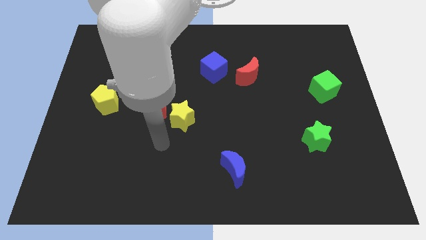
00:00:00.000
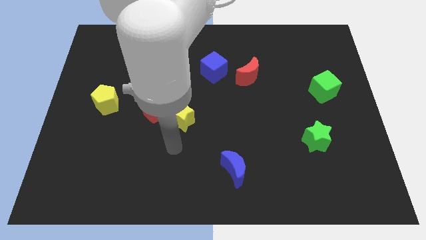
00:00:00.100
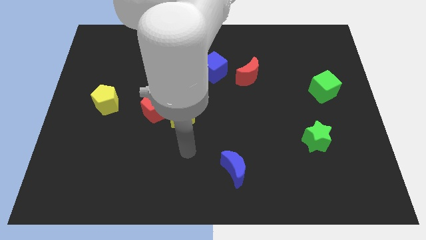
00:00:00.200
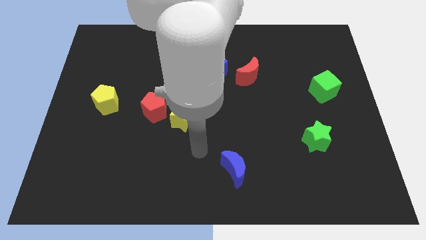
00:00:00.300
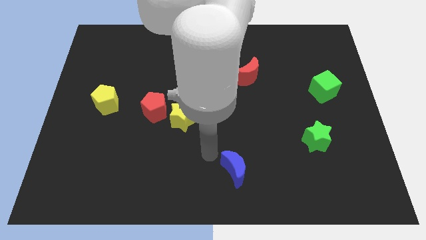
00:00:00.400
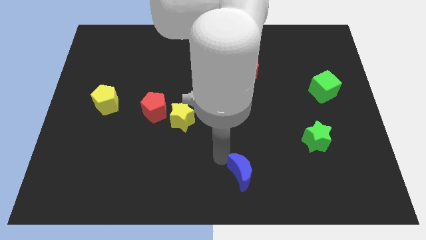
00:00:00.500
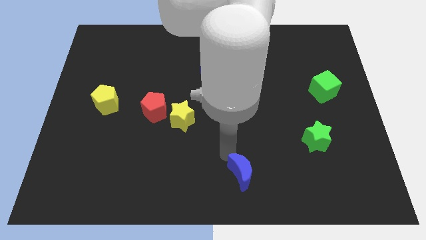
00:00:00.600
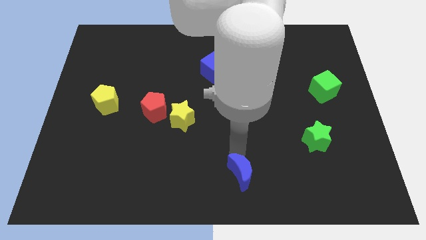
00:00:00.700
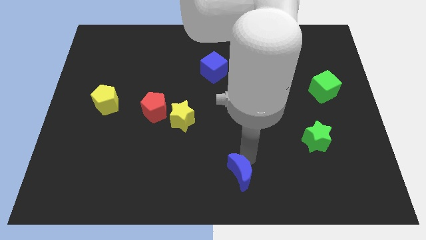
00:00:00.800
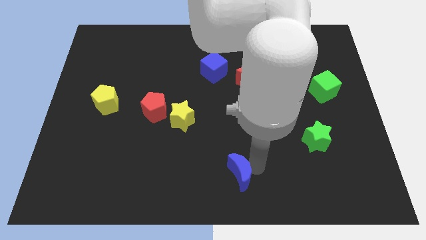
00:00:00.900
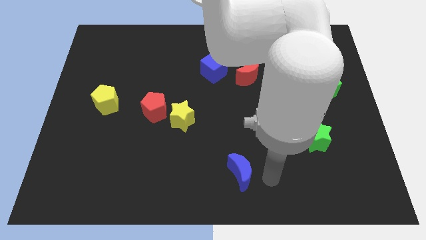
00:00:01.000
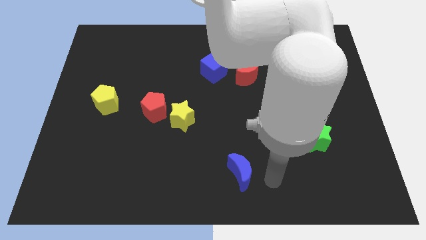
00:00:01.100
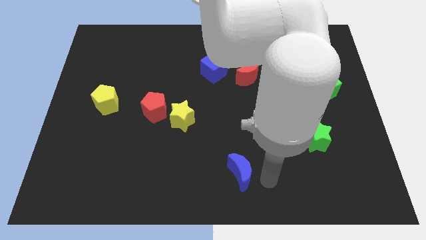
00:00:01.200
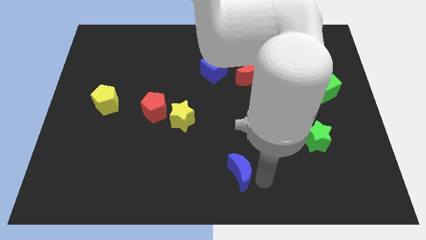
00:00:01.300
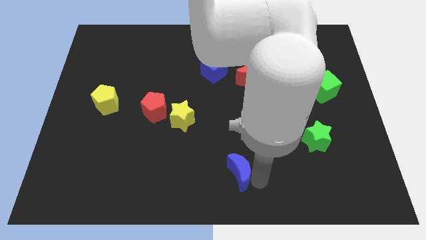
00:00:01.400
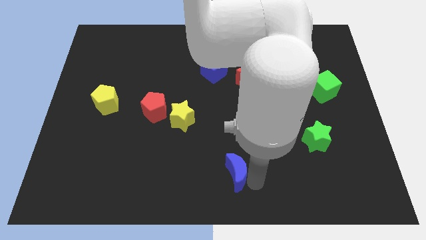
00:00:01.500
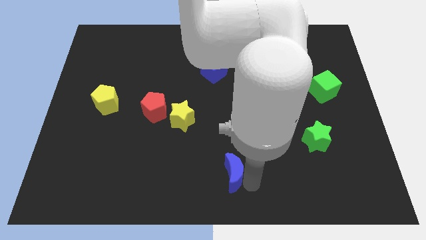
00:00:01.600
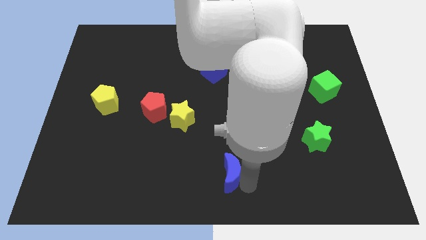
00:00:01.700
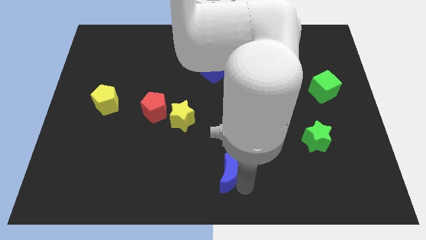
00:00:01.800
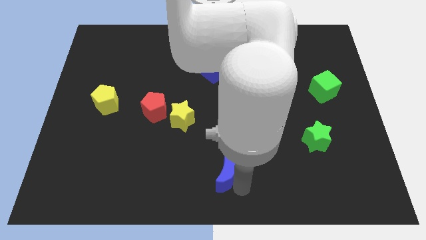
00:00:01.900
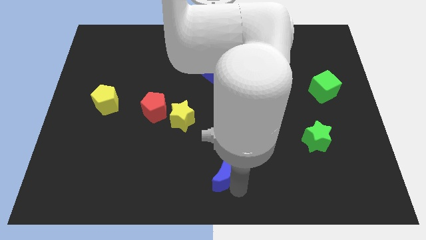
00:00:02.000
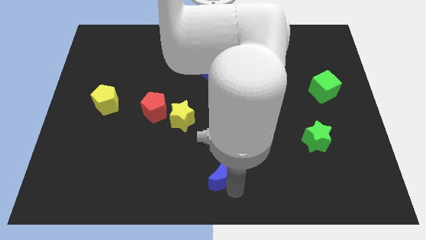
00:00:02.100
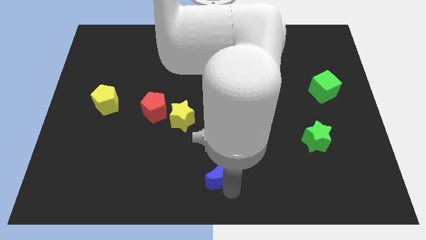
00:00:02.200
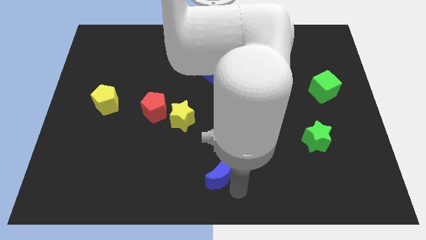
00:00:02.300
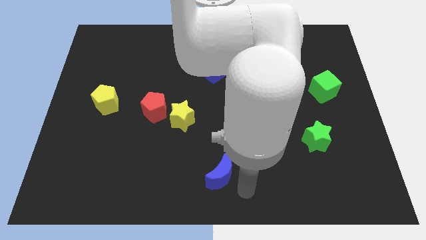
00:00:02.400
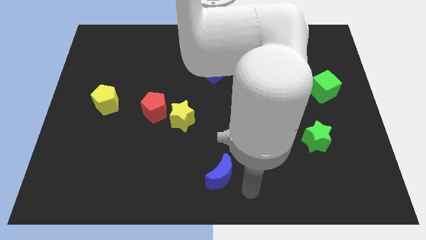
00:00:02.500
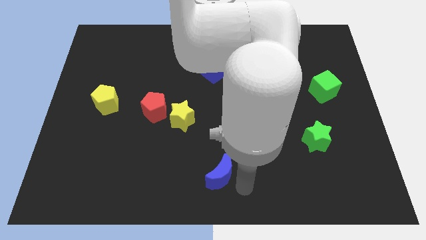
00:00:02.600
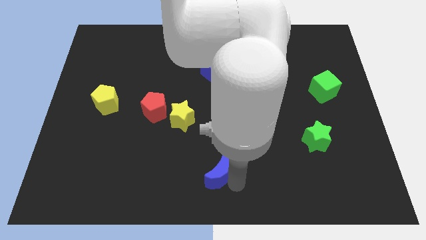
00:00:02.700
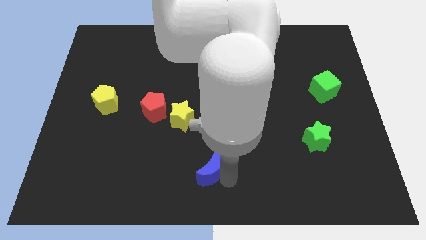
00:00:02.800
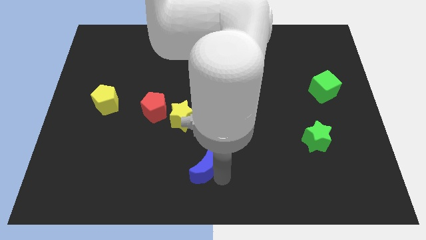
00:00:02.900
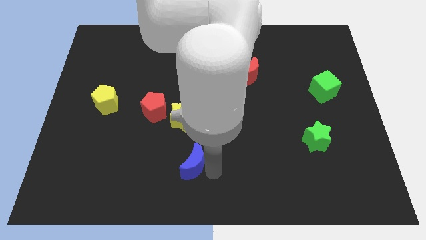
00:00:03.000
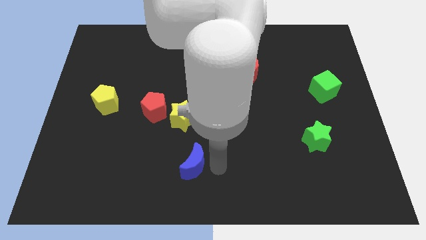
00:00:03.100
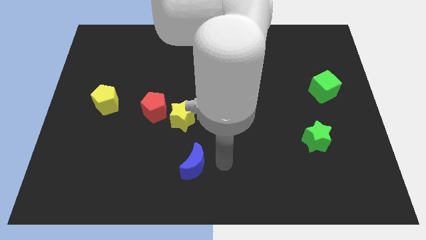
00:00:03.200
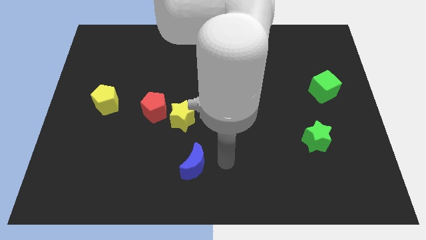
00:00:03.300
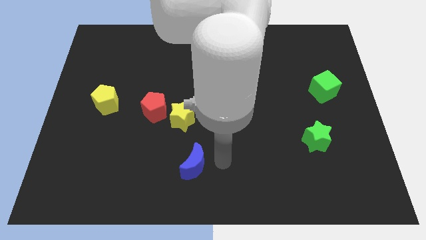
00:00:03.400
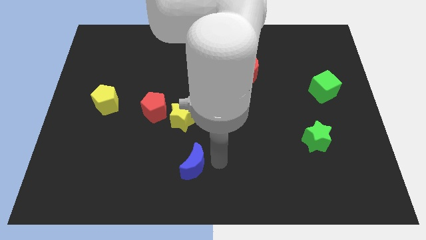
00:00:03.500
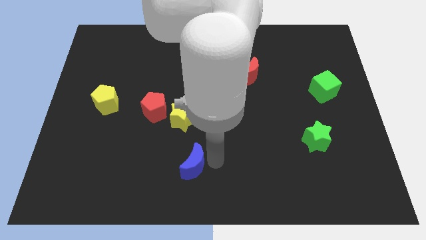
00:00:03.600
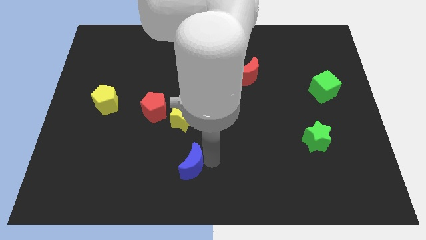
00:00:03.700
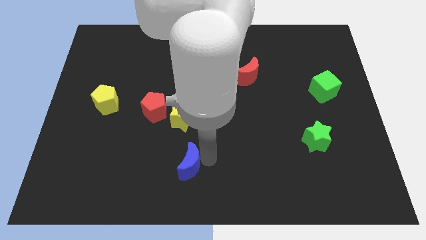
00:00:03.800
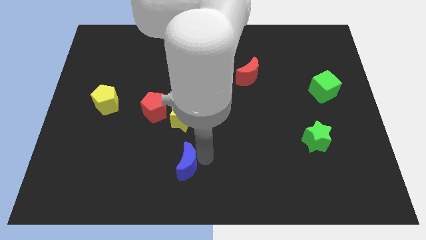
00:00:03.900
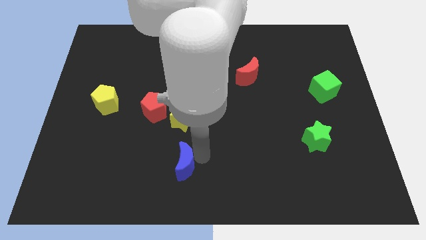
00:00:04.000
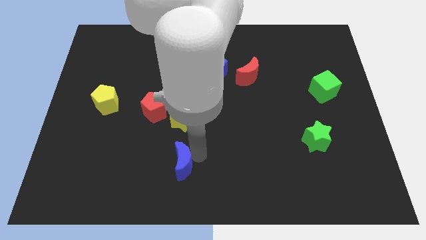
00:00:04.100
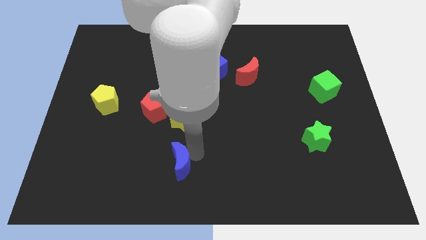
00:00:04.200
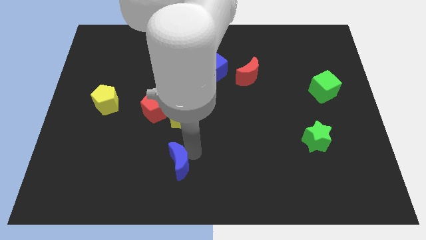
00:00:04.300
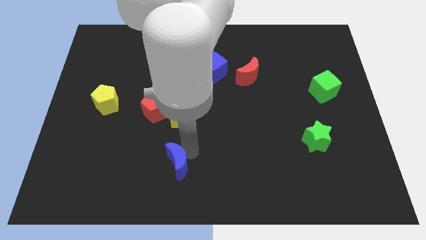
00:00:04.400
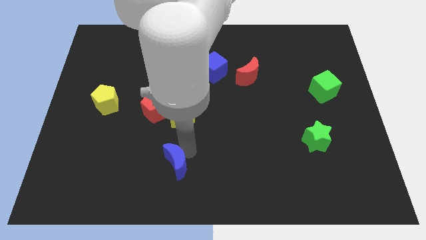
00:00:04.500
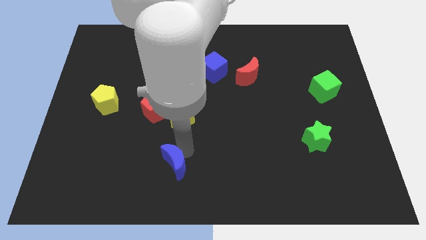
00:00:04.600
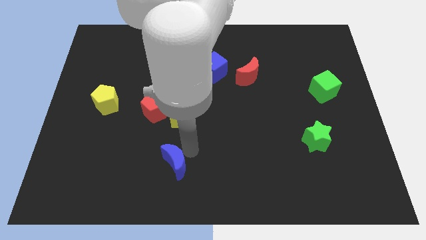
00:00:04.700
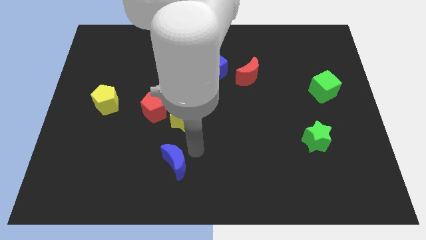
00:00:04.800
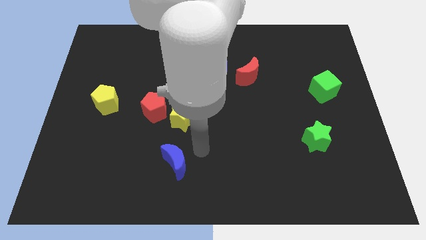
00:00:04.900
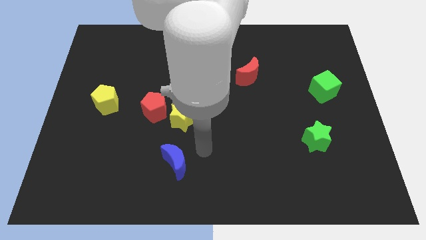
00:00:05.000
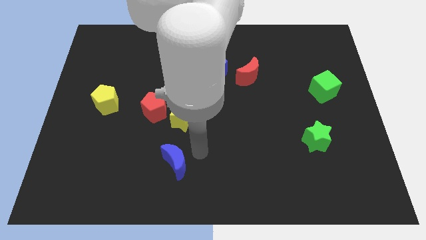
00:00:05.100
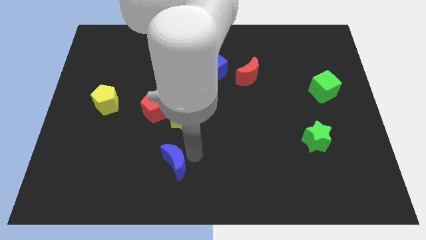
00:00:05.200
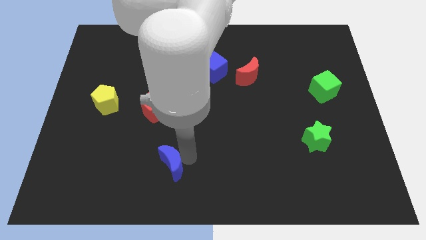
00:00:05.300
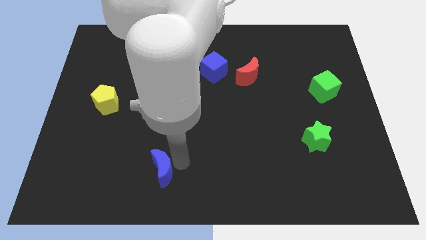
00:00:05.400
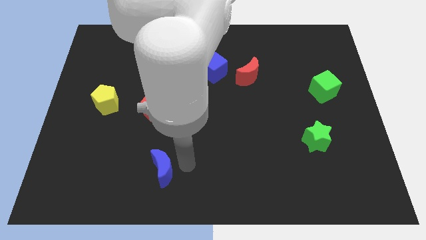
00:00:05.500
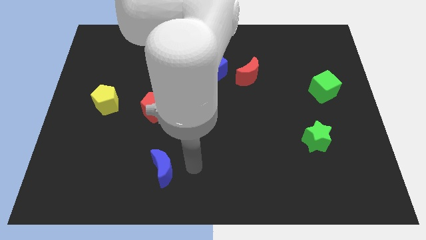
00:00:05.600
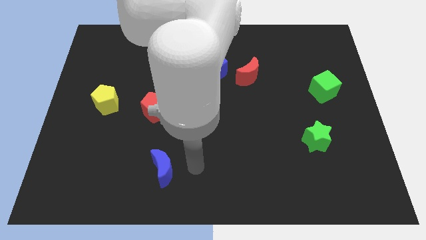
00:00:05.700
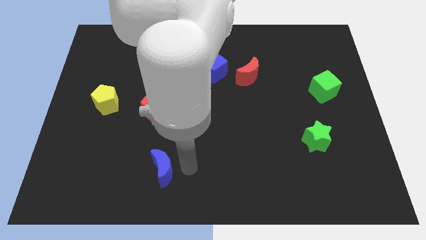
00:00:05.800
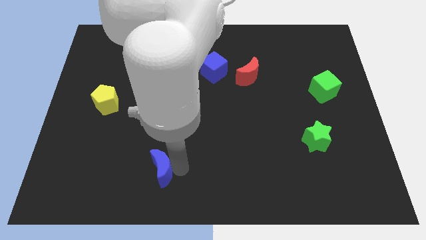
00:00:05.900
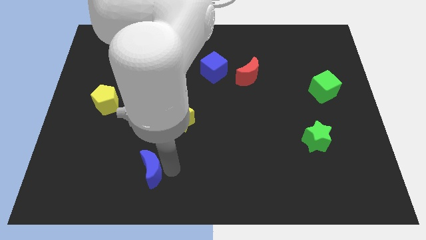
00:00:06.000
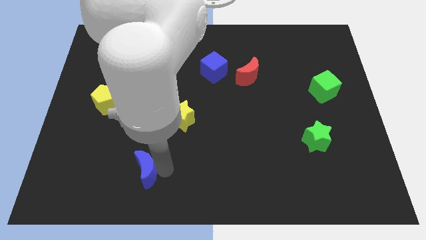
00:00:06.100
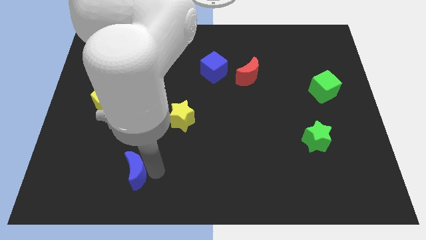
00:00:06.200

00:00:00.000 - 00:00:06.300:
move the blue moon to the left

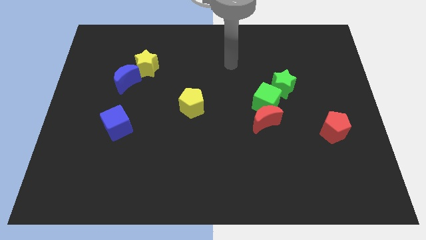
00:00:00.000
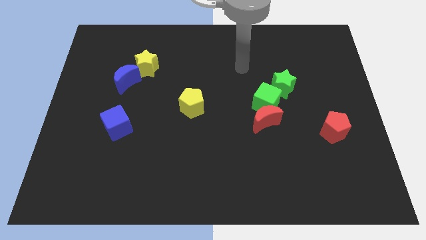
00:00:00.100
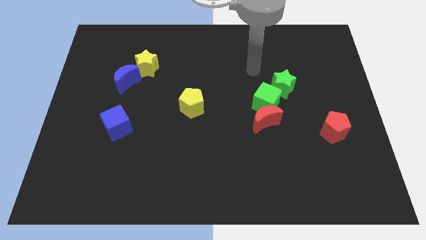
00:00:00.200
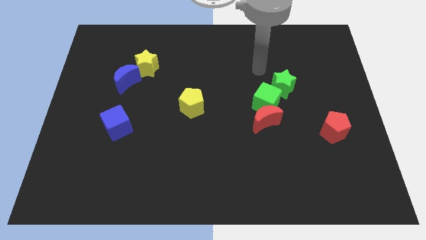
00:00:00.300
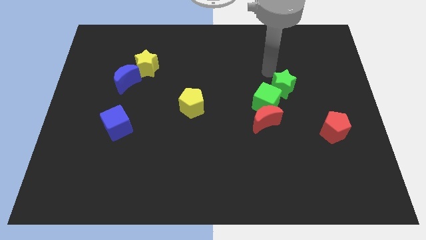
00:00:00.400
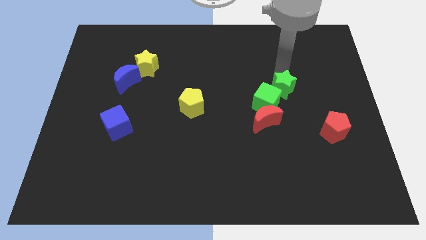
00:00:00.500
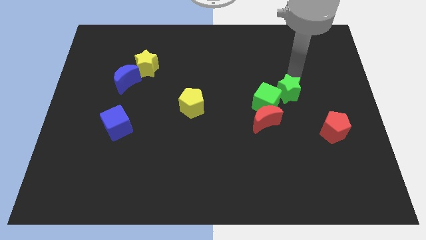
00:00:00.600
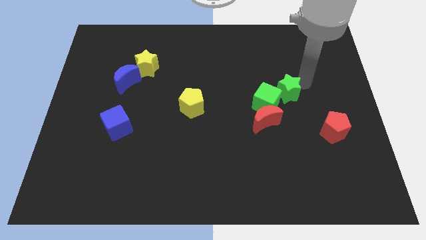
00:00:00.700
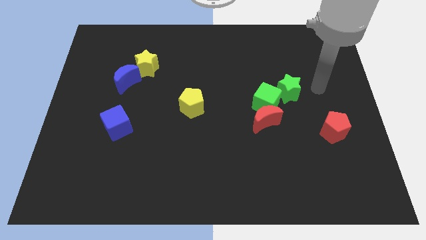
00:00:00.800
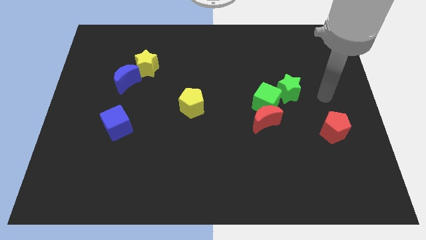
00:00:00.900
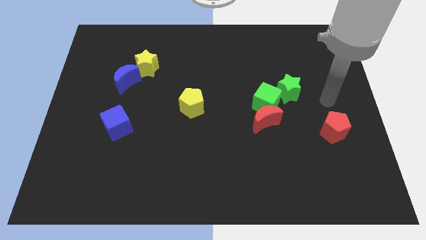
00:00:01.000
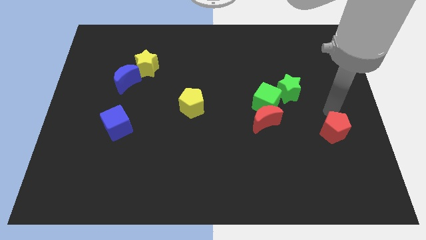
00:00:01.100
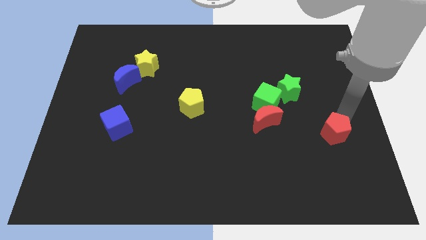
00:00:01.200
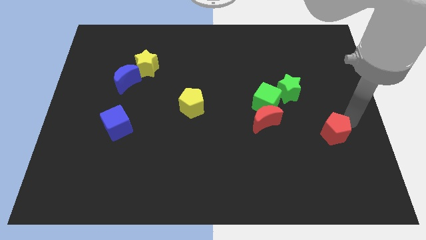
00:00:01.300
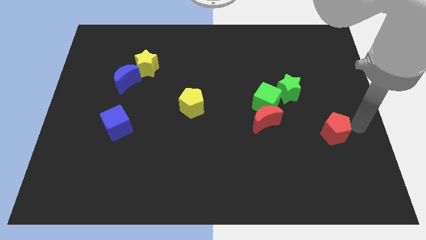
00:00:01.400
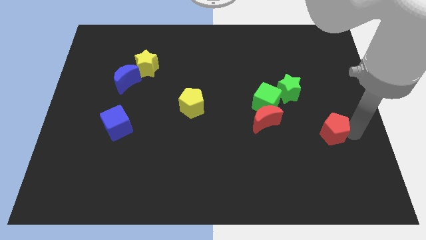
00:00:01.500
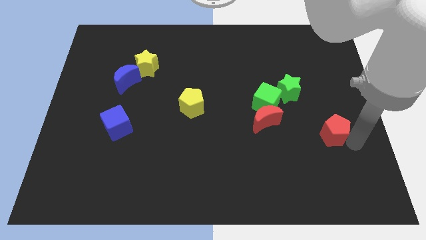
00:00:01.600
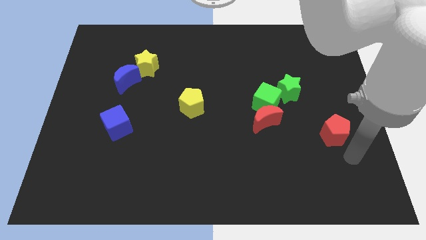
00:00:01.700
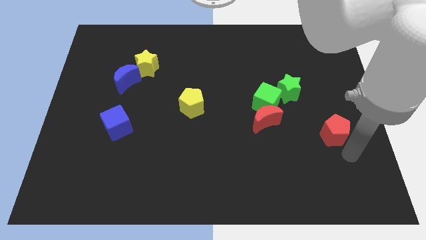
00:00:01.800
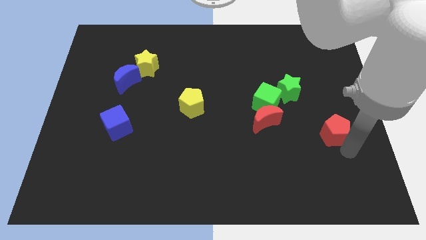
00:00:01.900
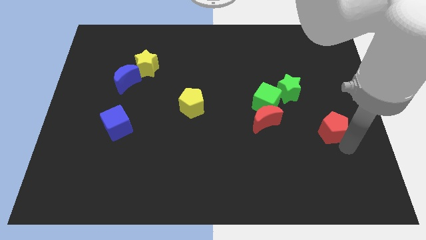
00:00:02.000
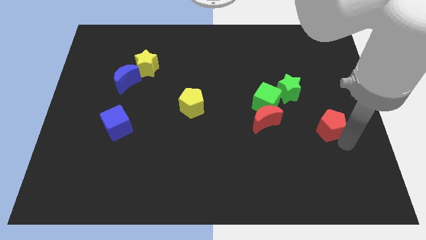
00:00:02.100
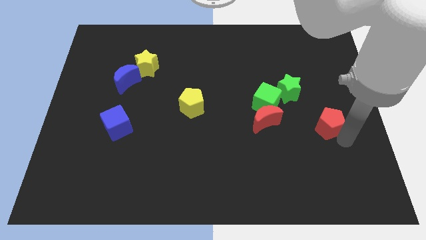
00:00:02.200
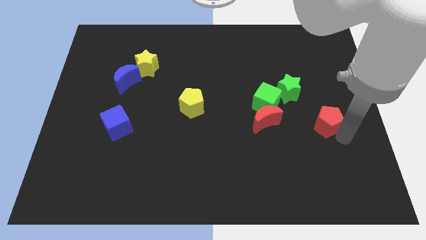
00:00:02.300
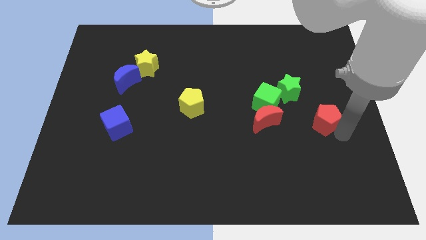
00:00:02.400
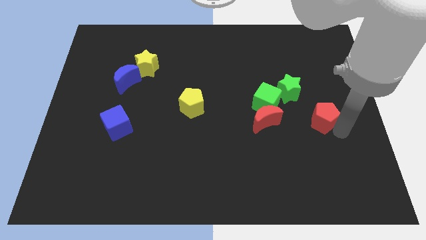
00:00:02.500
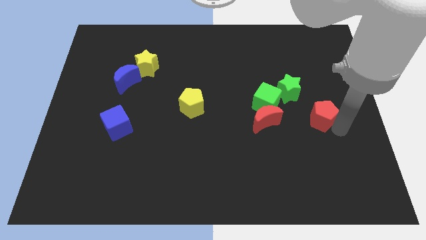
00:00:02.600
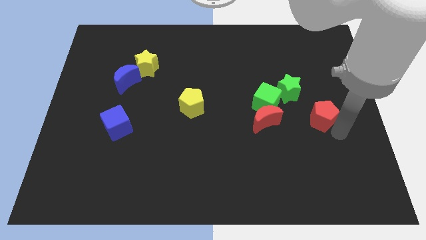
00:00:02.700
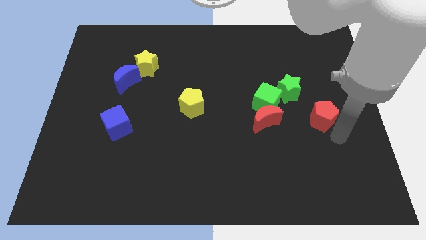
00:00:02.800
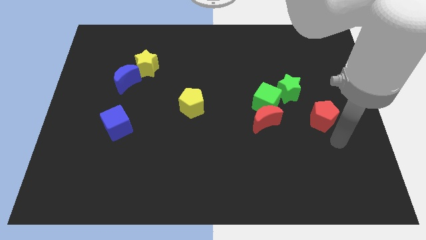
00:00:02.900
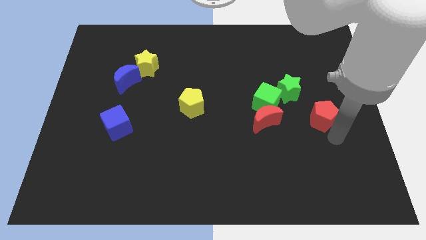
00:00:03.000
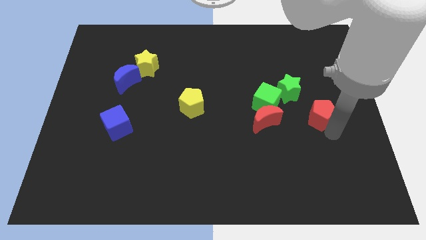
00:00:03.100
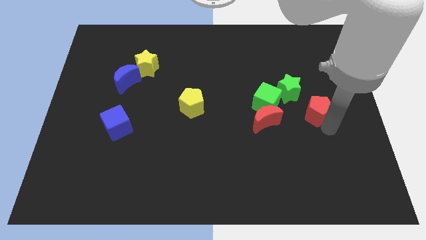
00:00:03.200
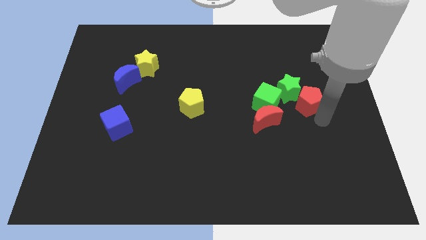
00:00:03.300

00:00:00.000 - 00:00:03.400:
push the red pentagon slightly upwards and left
